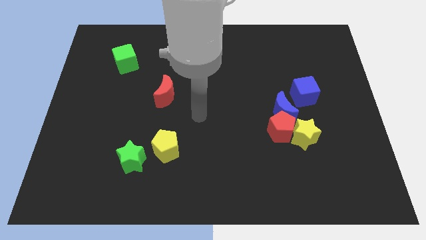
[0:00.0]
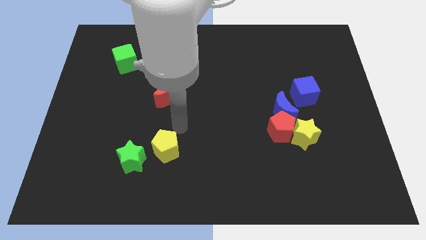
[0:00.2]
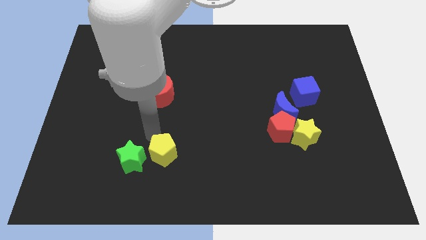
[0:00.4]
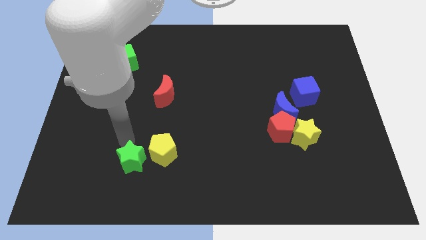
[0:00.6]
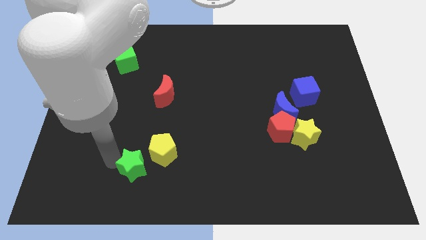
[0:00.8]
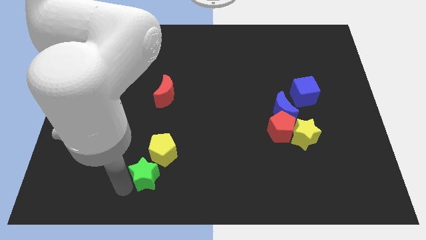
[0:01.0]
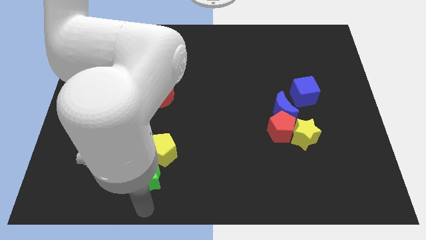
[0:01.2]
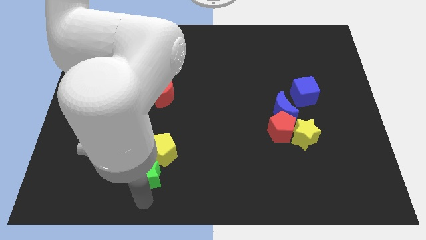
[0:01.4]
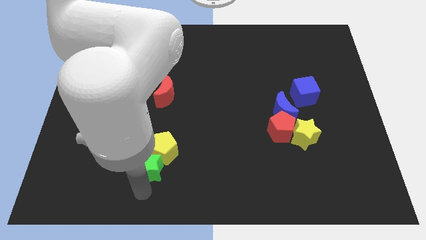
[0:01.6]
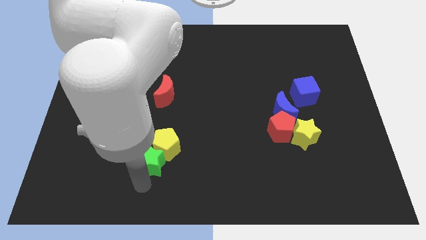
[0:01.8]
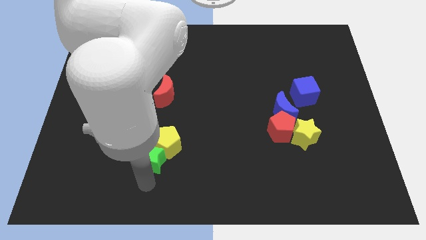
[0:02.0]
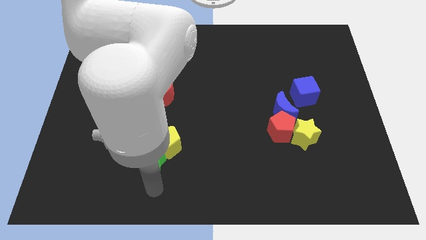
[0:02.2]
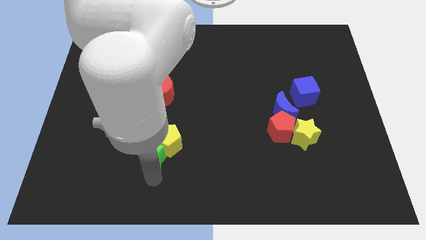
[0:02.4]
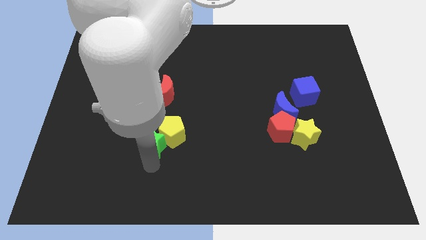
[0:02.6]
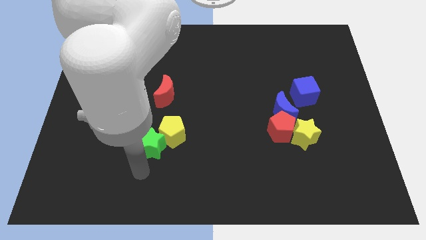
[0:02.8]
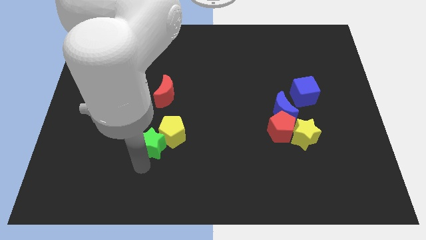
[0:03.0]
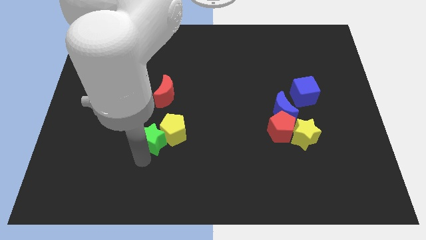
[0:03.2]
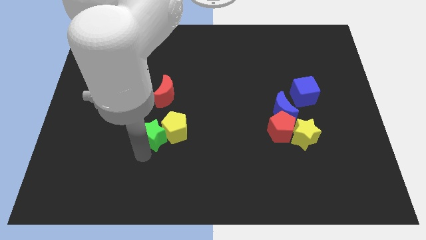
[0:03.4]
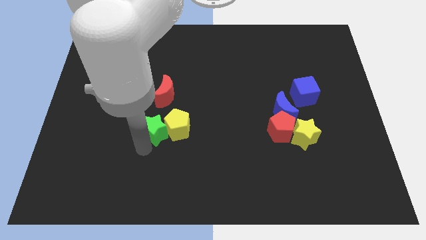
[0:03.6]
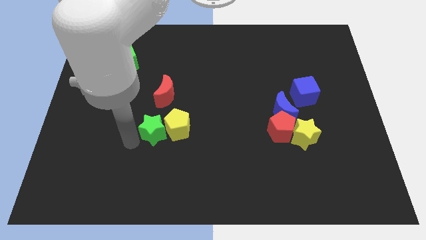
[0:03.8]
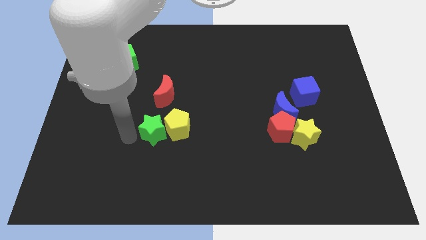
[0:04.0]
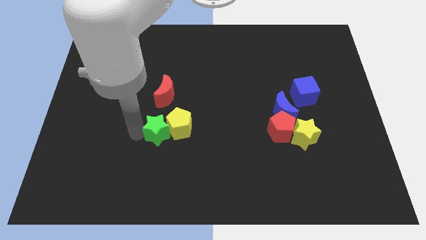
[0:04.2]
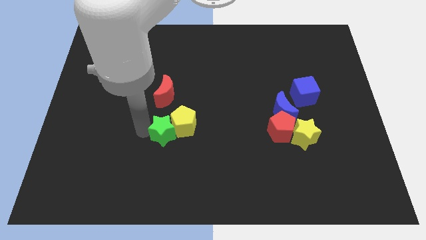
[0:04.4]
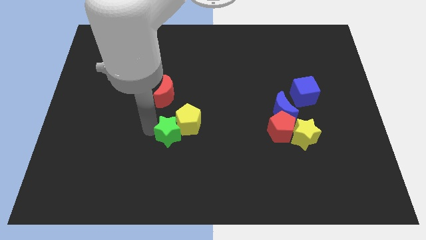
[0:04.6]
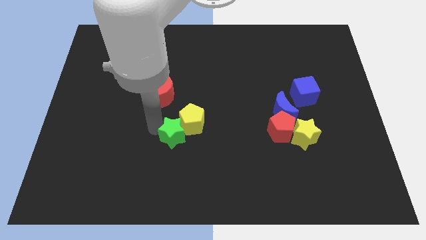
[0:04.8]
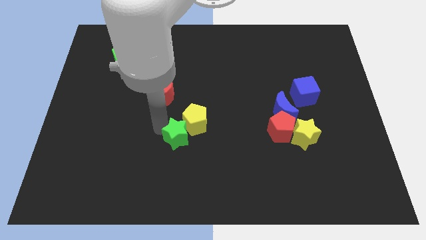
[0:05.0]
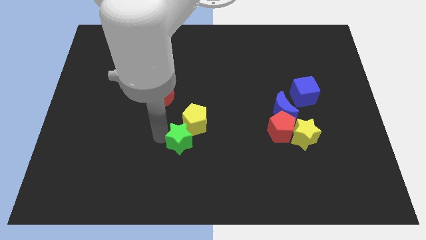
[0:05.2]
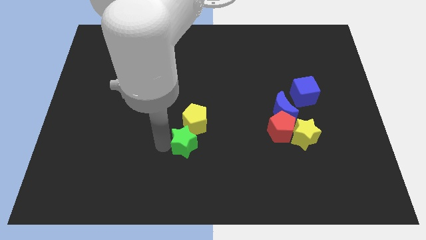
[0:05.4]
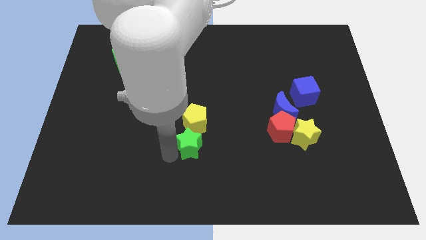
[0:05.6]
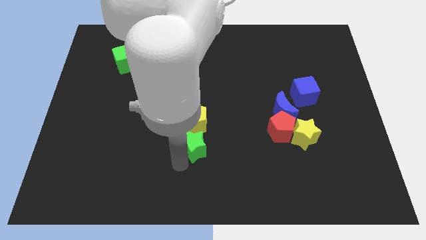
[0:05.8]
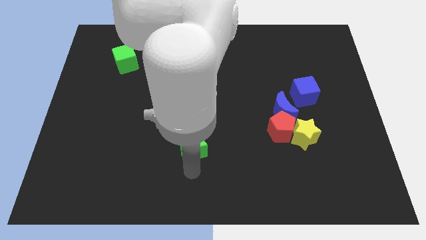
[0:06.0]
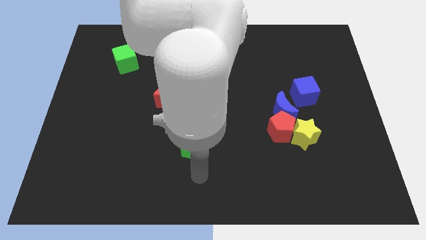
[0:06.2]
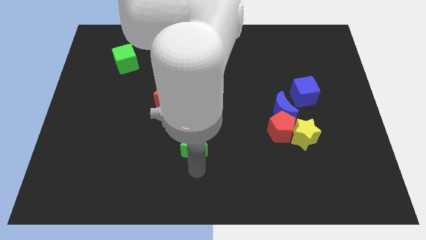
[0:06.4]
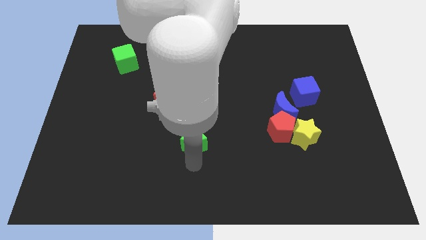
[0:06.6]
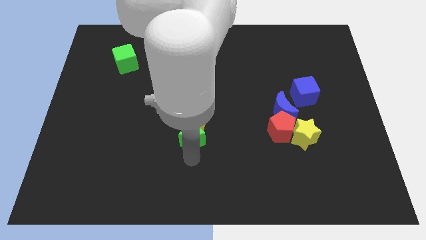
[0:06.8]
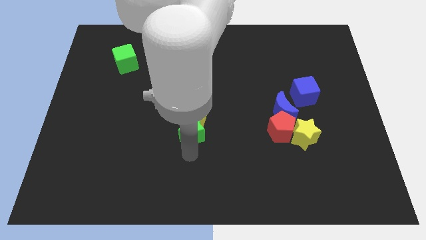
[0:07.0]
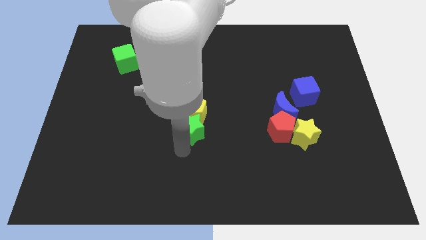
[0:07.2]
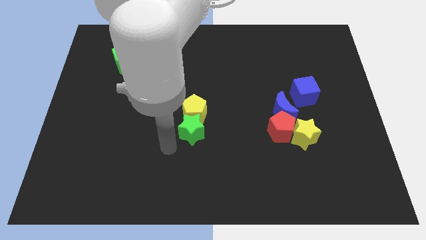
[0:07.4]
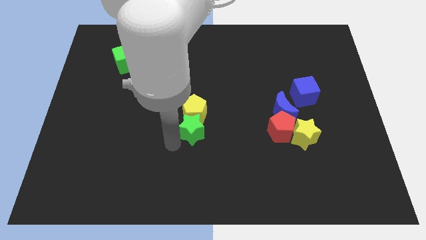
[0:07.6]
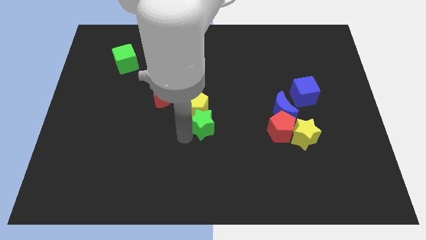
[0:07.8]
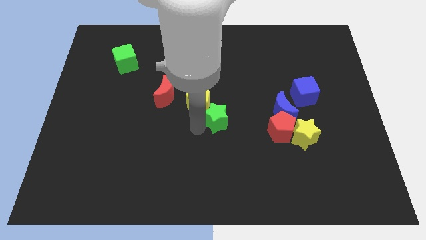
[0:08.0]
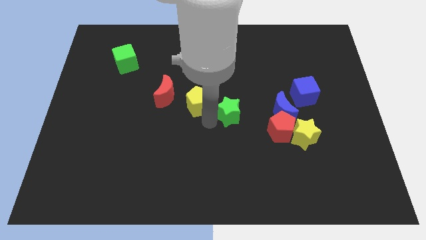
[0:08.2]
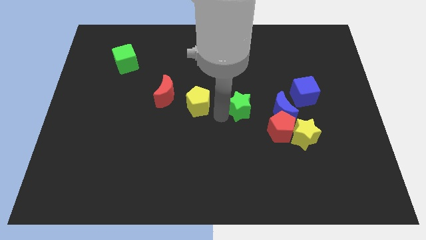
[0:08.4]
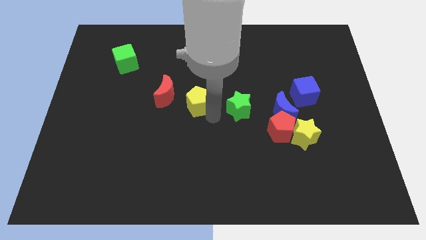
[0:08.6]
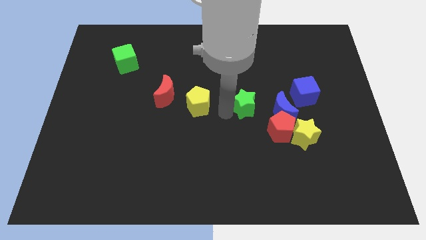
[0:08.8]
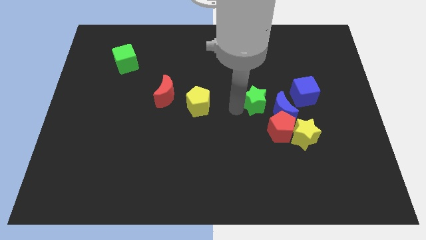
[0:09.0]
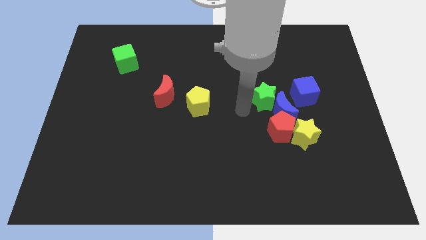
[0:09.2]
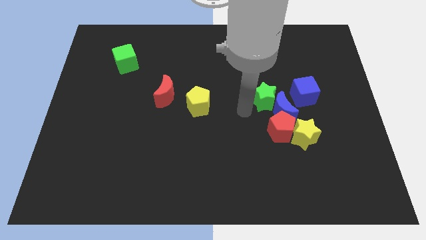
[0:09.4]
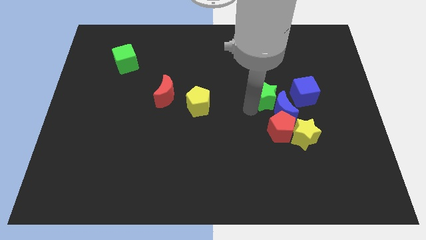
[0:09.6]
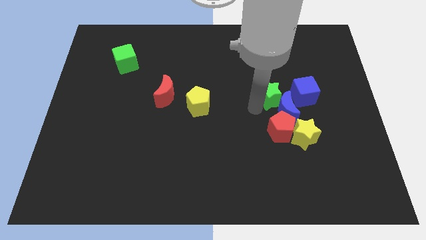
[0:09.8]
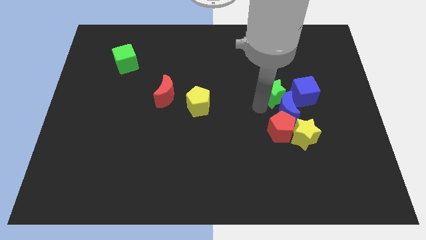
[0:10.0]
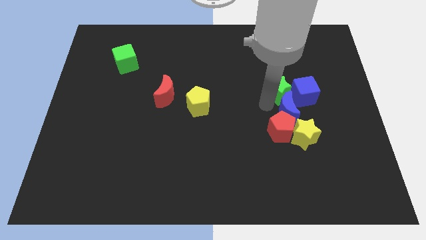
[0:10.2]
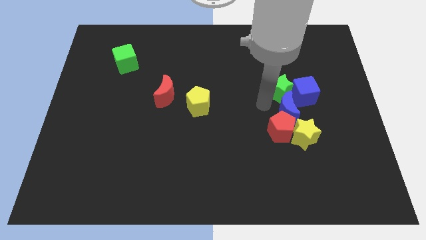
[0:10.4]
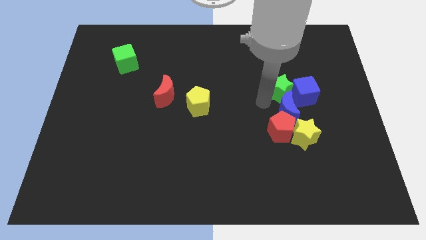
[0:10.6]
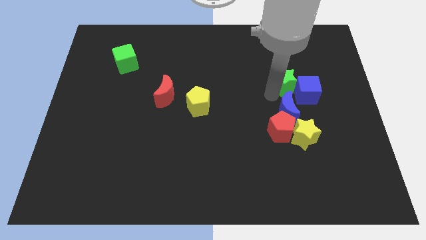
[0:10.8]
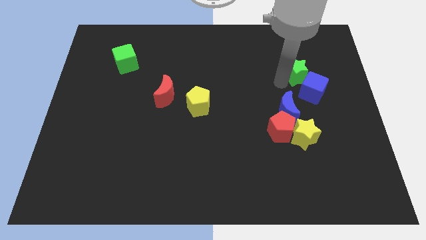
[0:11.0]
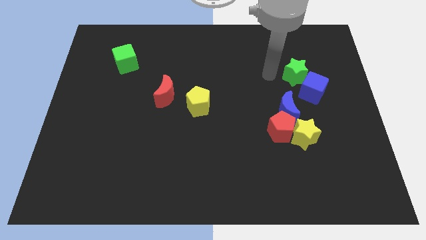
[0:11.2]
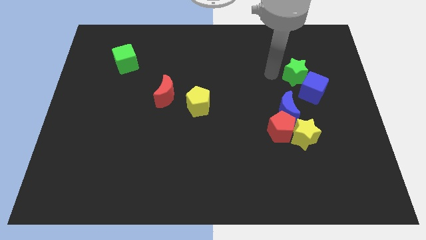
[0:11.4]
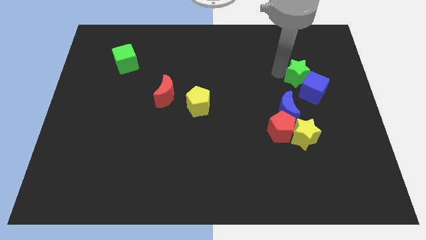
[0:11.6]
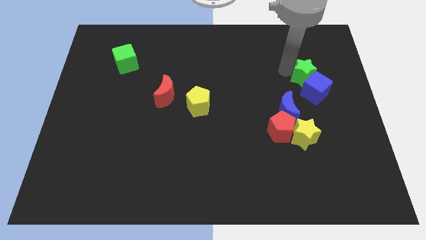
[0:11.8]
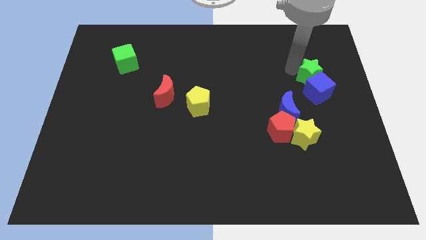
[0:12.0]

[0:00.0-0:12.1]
push the green star to the top right side of the blue cube
